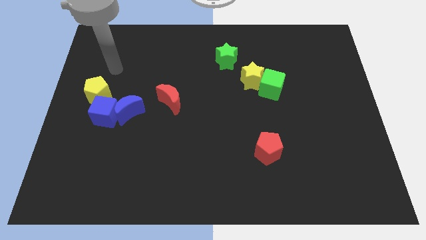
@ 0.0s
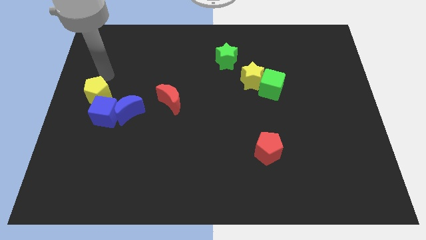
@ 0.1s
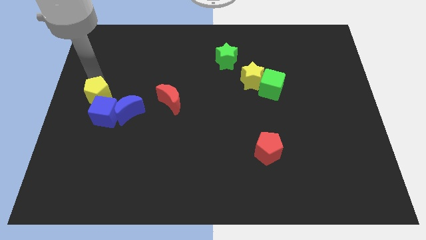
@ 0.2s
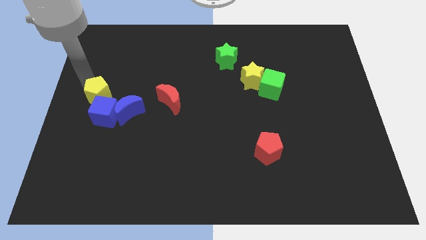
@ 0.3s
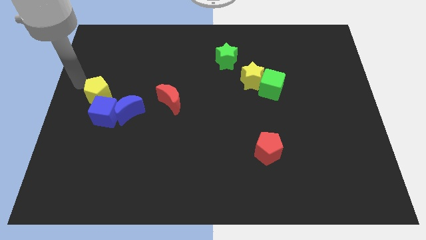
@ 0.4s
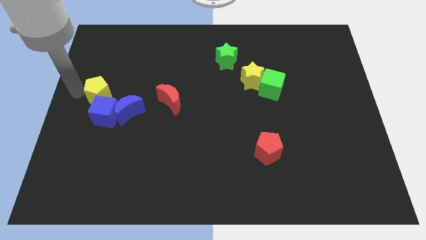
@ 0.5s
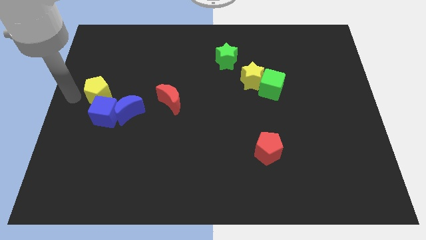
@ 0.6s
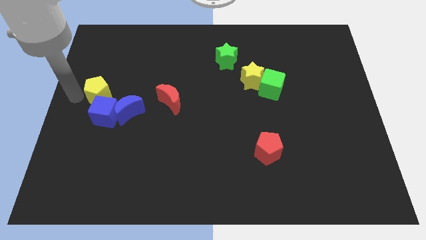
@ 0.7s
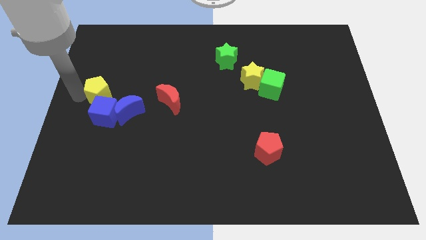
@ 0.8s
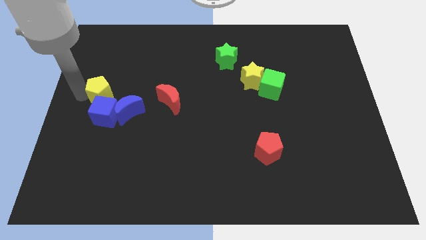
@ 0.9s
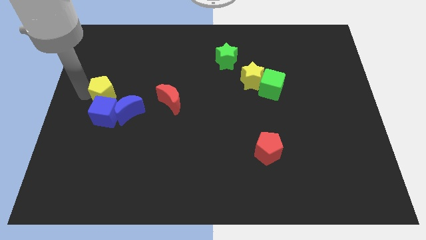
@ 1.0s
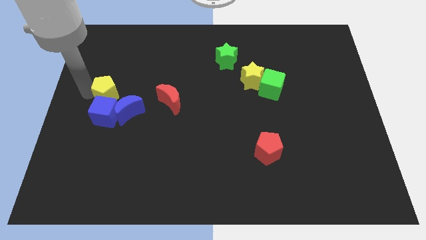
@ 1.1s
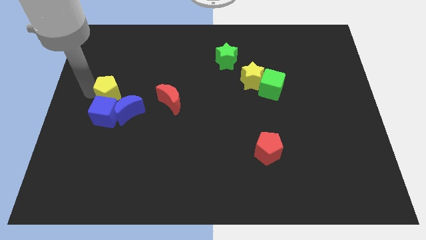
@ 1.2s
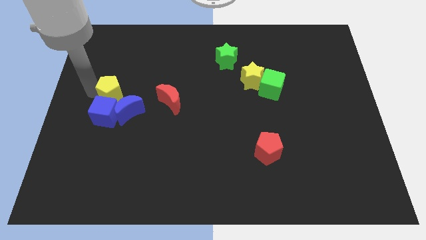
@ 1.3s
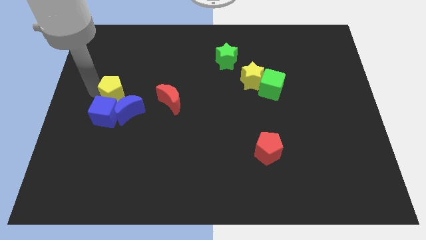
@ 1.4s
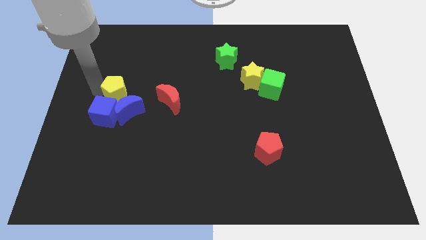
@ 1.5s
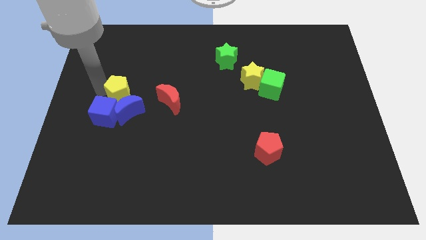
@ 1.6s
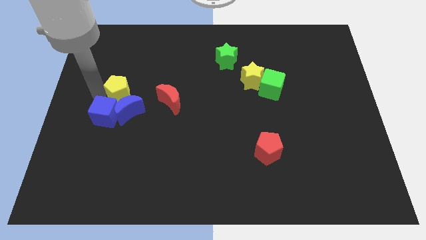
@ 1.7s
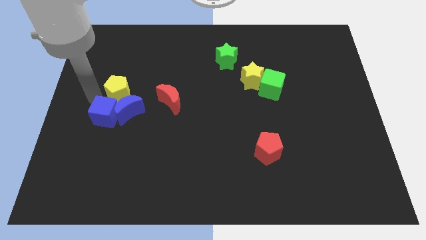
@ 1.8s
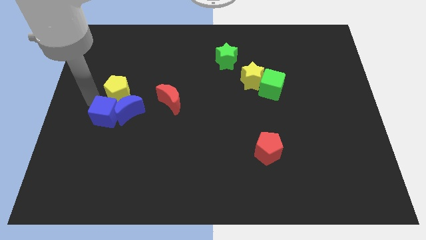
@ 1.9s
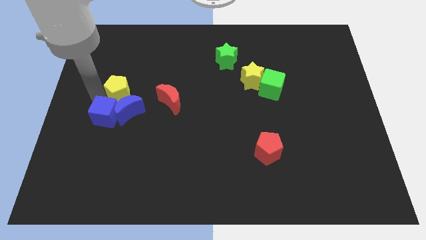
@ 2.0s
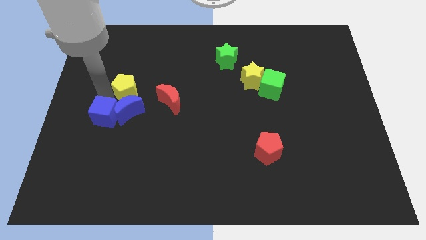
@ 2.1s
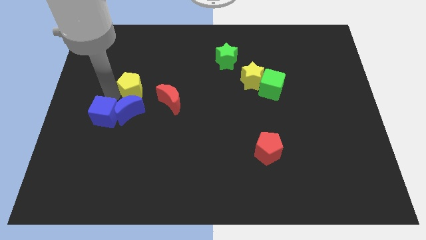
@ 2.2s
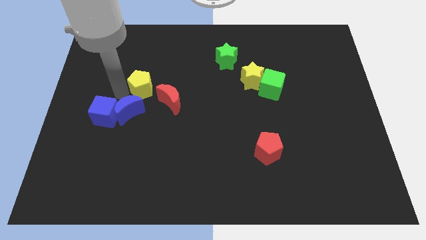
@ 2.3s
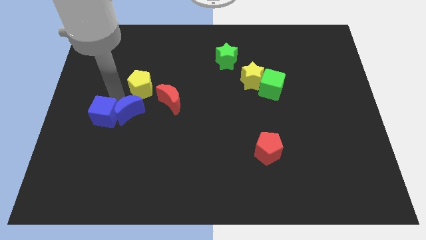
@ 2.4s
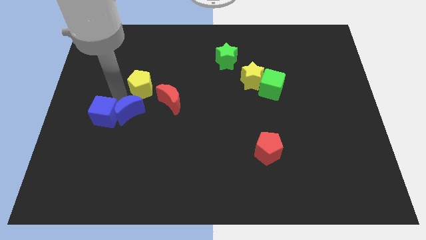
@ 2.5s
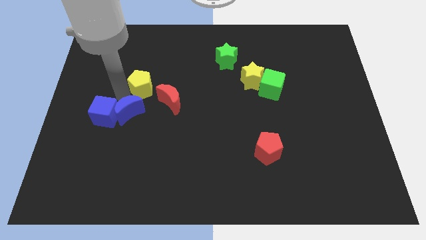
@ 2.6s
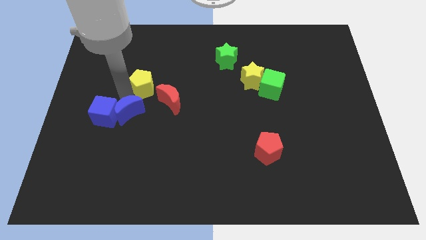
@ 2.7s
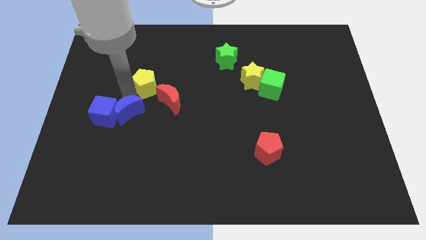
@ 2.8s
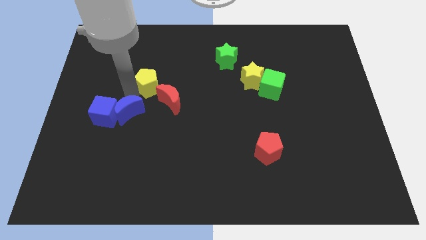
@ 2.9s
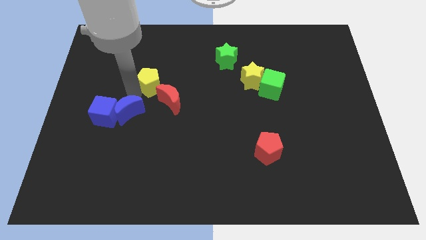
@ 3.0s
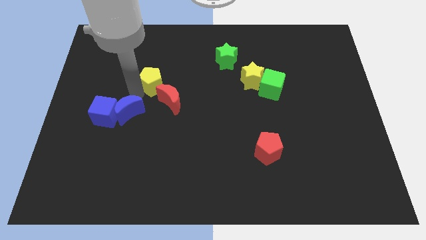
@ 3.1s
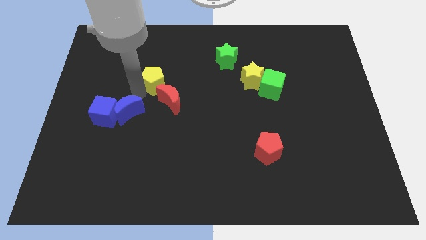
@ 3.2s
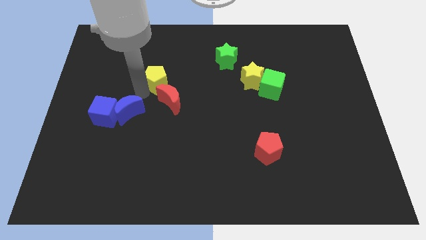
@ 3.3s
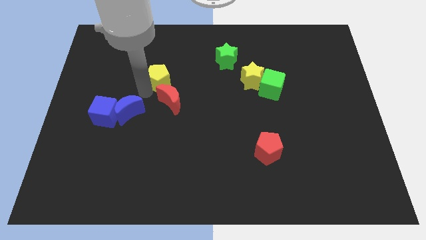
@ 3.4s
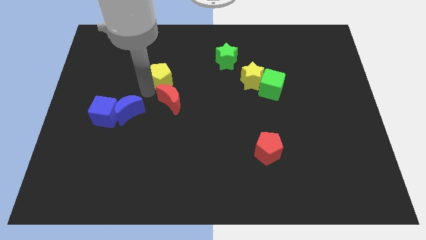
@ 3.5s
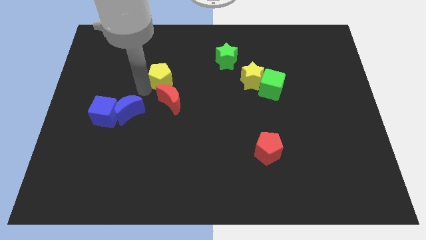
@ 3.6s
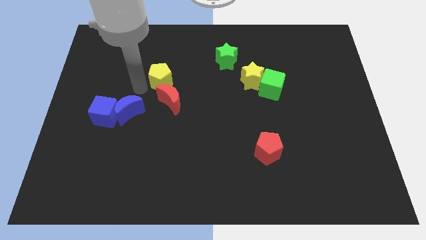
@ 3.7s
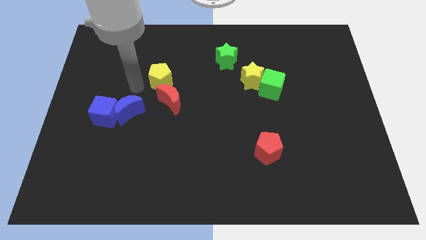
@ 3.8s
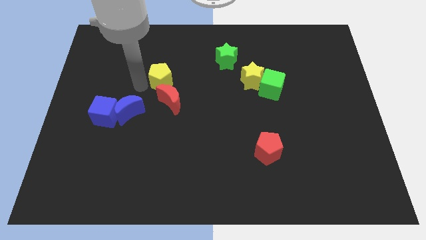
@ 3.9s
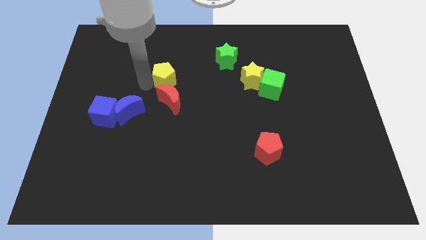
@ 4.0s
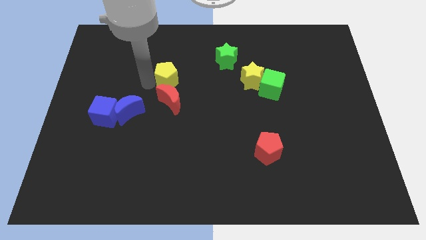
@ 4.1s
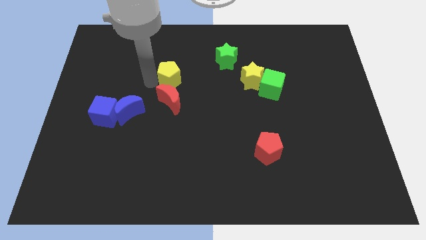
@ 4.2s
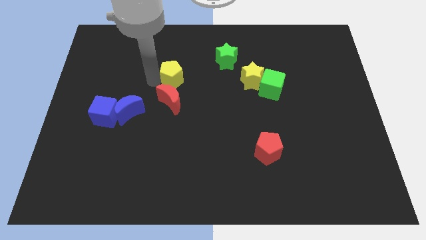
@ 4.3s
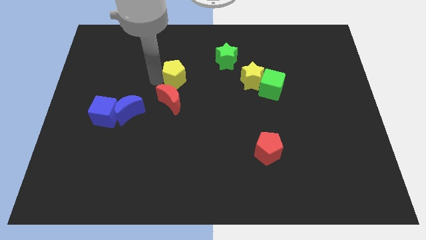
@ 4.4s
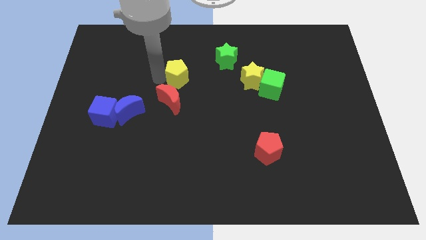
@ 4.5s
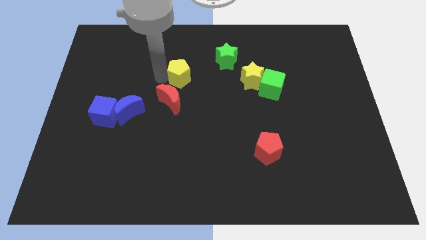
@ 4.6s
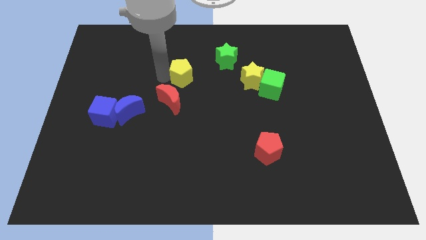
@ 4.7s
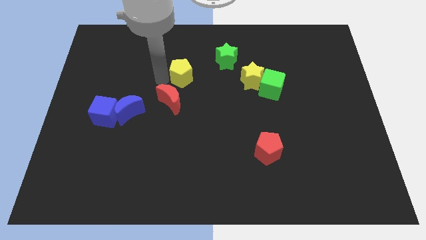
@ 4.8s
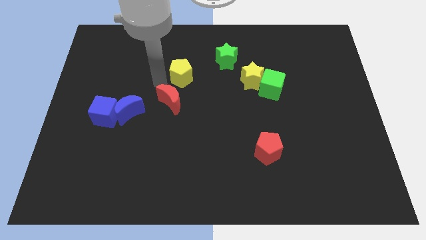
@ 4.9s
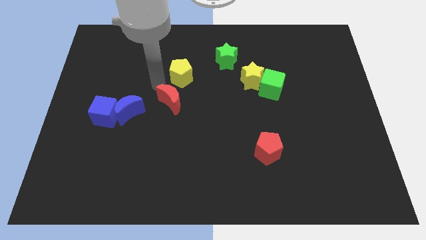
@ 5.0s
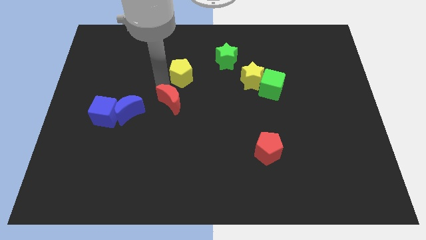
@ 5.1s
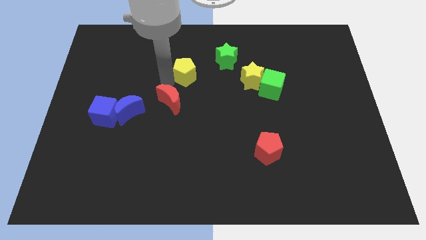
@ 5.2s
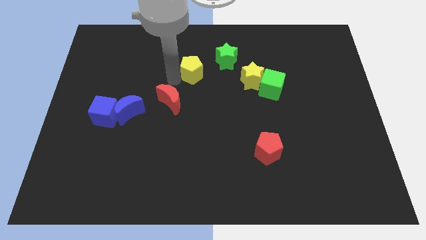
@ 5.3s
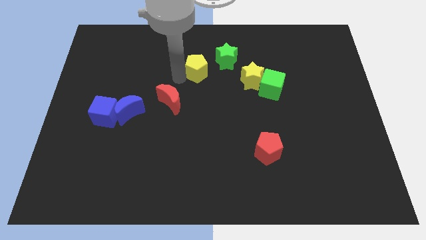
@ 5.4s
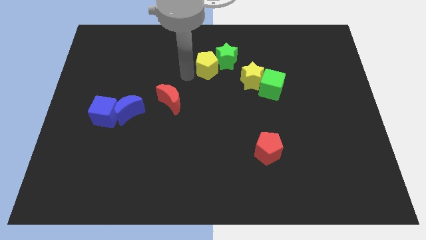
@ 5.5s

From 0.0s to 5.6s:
move the yellow pentagon towards the green star

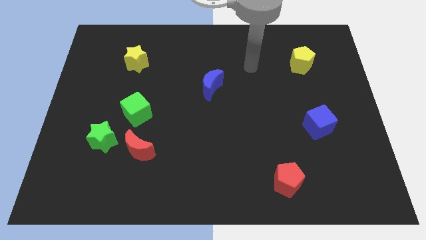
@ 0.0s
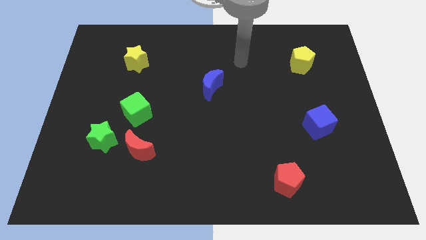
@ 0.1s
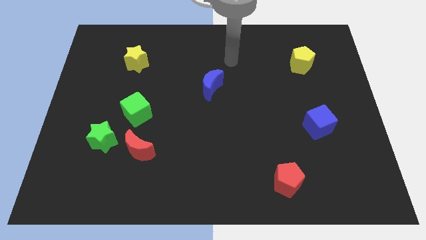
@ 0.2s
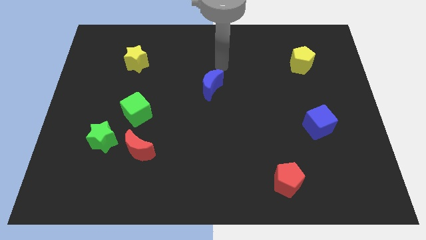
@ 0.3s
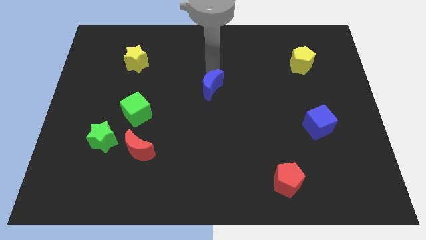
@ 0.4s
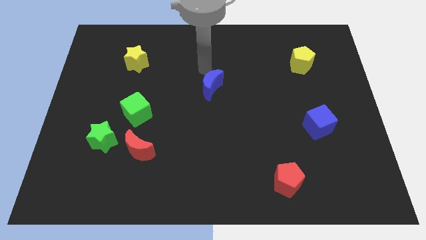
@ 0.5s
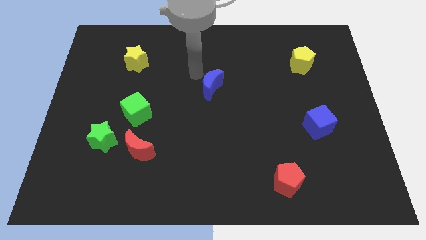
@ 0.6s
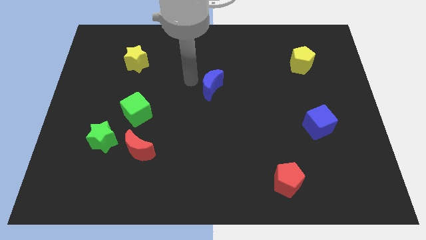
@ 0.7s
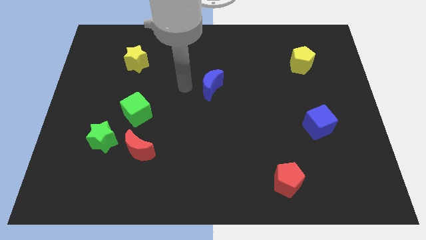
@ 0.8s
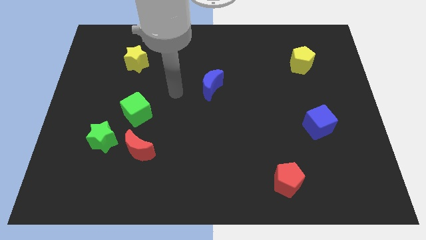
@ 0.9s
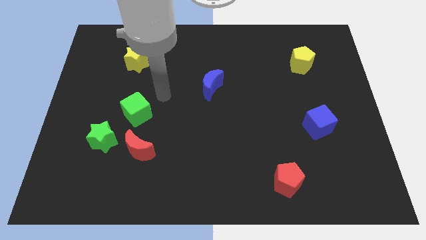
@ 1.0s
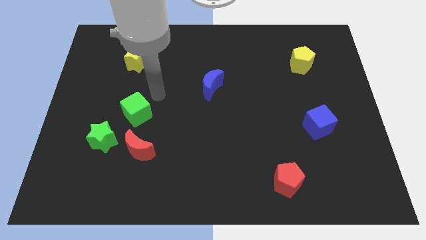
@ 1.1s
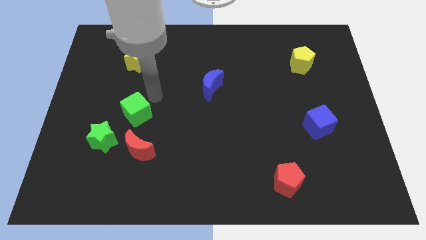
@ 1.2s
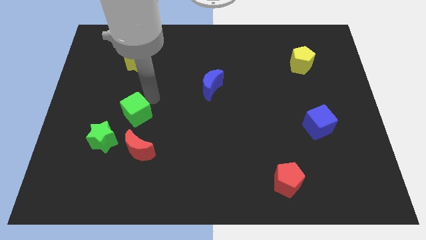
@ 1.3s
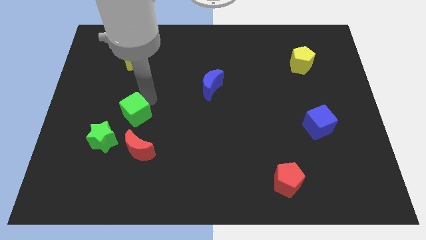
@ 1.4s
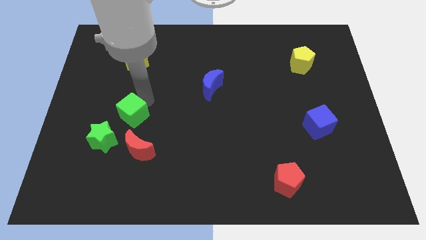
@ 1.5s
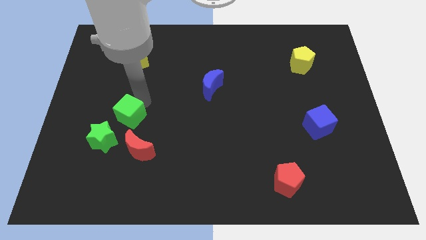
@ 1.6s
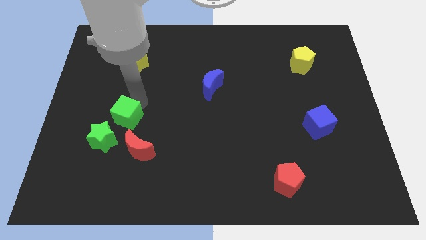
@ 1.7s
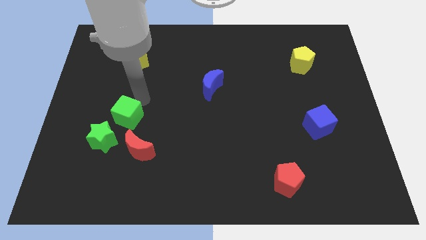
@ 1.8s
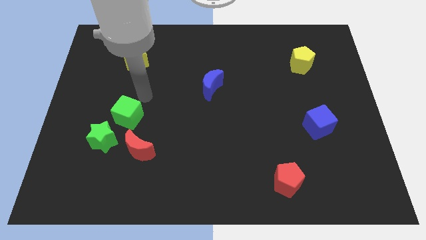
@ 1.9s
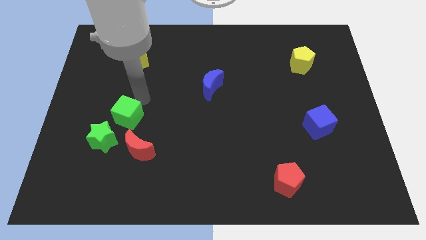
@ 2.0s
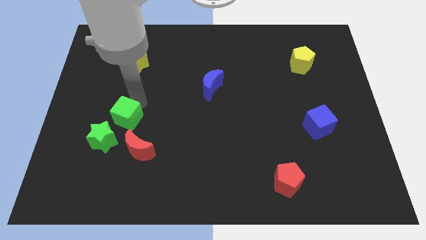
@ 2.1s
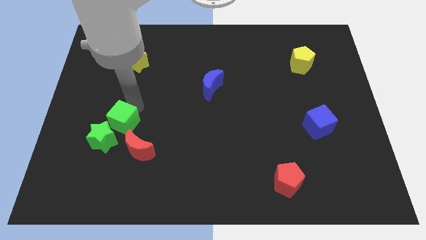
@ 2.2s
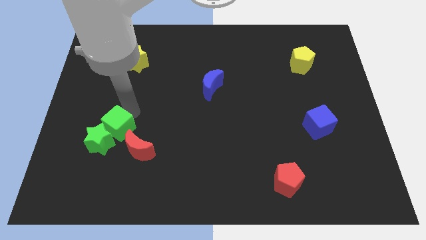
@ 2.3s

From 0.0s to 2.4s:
put the green cube towards the green star
